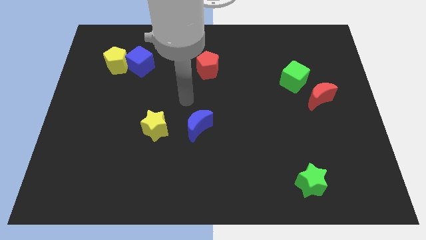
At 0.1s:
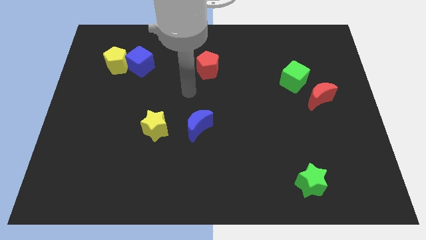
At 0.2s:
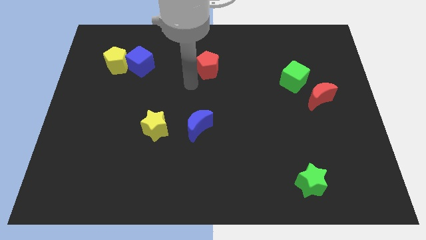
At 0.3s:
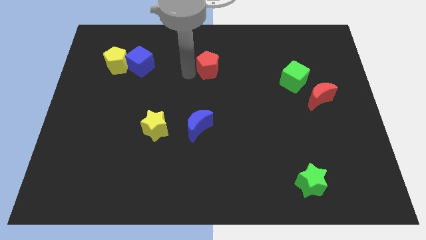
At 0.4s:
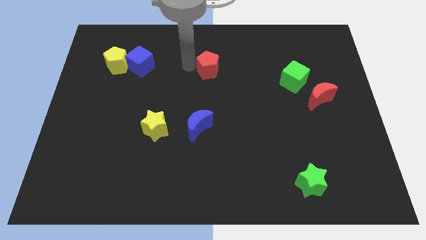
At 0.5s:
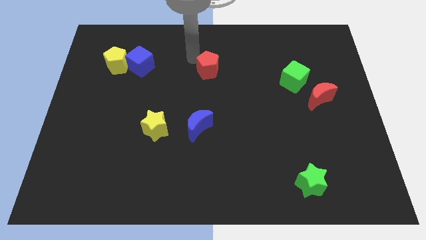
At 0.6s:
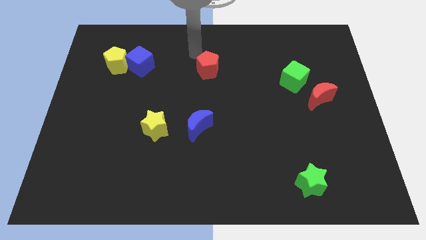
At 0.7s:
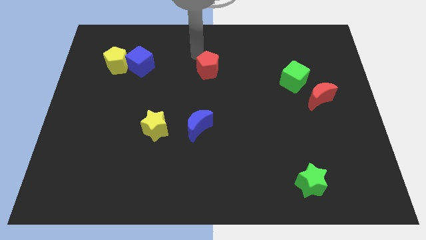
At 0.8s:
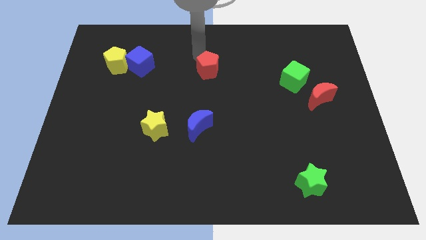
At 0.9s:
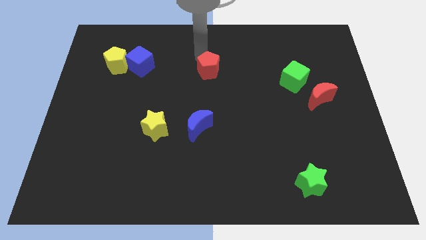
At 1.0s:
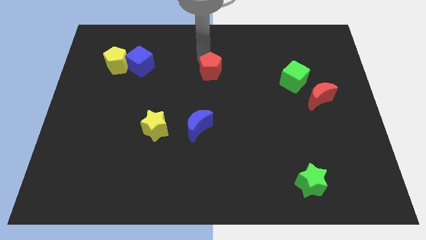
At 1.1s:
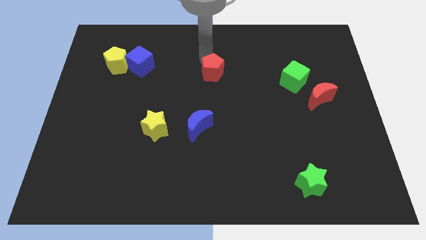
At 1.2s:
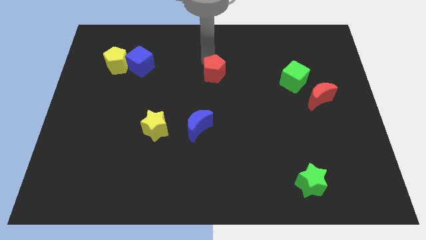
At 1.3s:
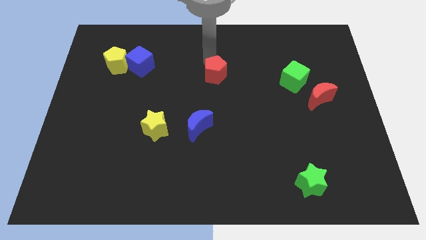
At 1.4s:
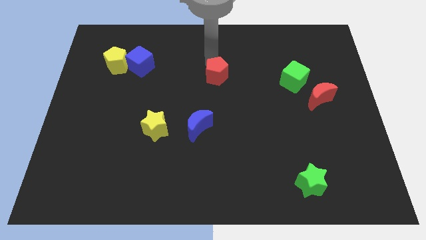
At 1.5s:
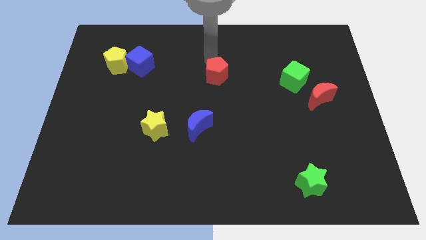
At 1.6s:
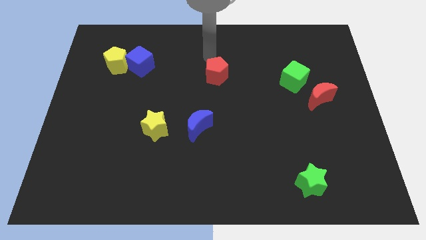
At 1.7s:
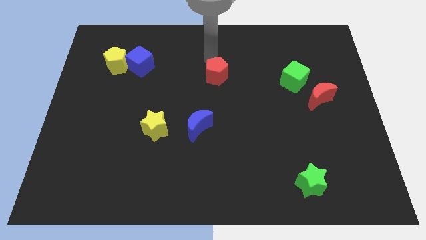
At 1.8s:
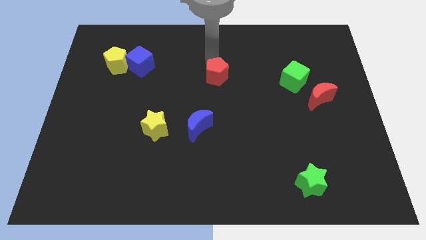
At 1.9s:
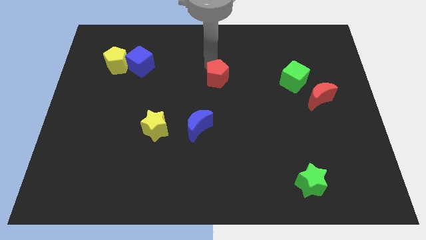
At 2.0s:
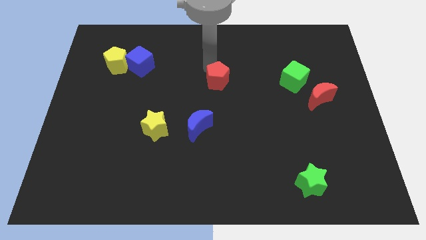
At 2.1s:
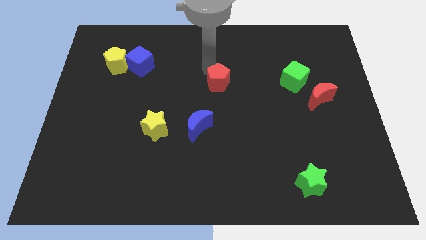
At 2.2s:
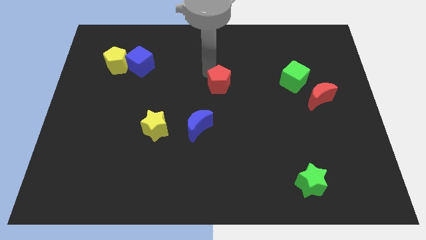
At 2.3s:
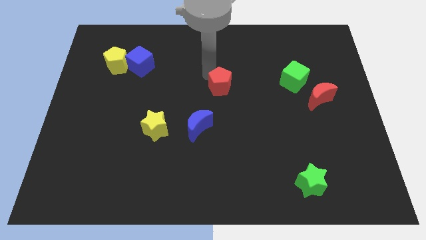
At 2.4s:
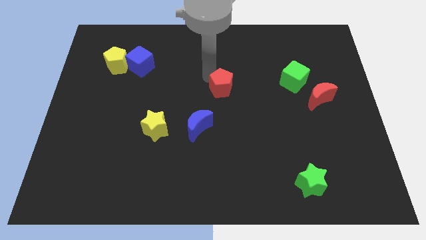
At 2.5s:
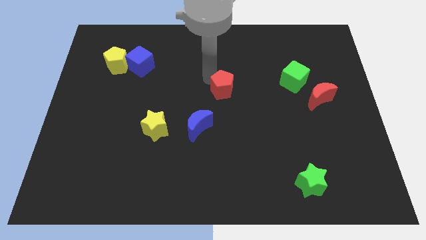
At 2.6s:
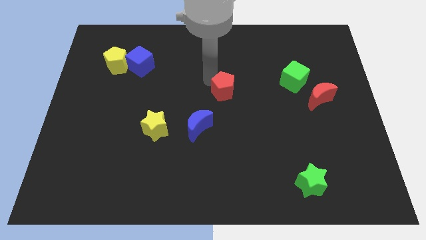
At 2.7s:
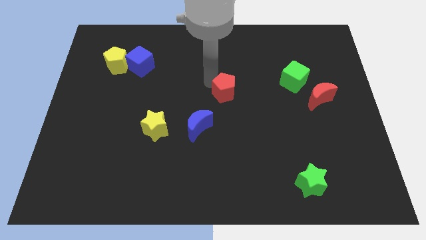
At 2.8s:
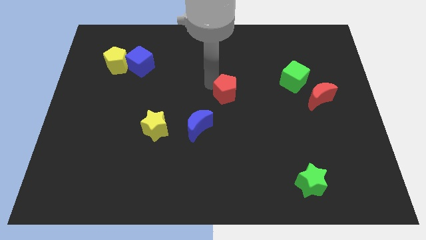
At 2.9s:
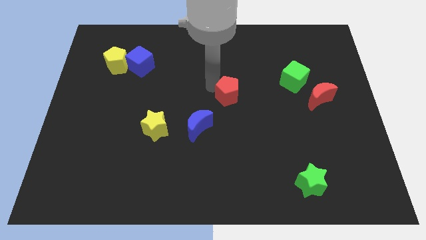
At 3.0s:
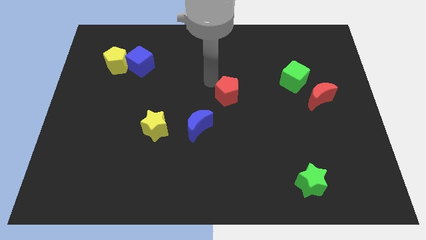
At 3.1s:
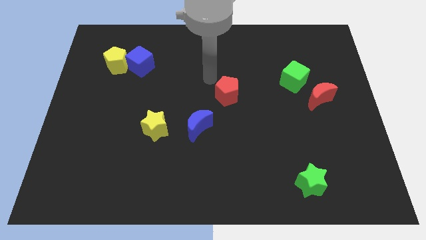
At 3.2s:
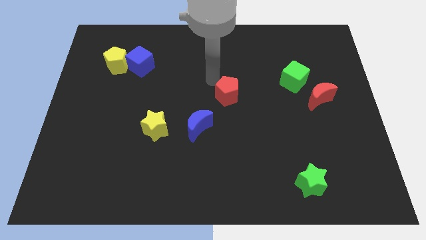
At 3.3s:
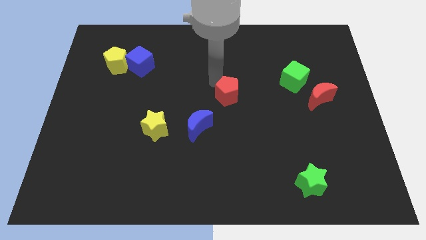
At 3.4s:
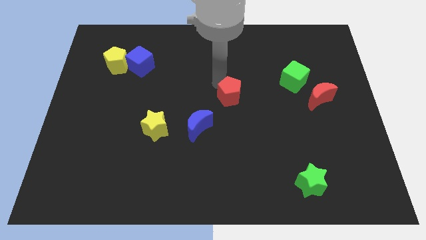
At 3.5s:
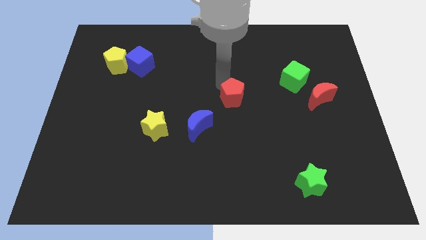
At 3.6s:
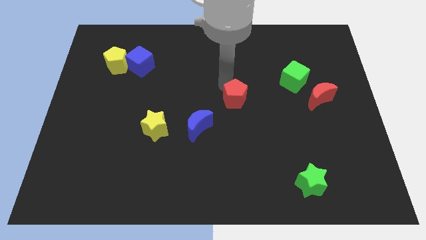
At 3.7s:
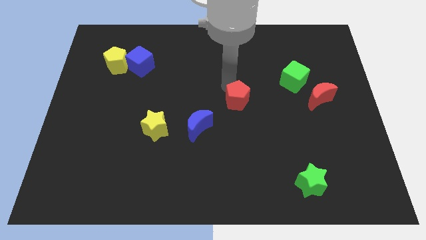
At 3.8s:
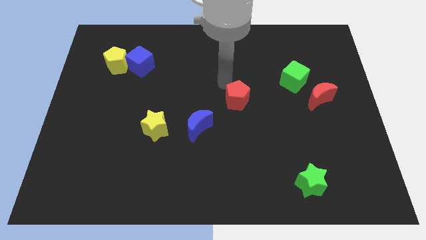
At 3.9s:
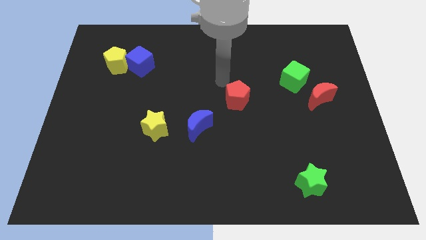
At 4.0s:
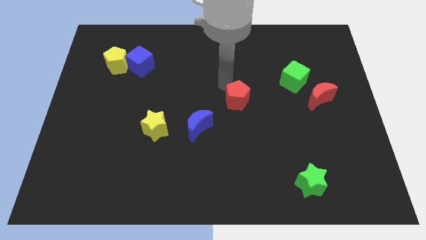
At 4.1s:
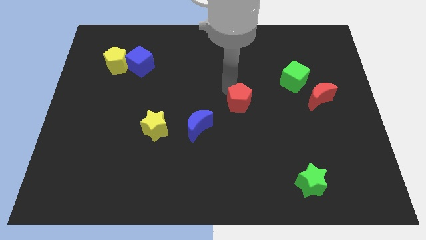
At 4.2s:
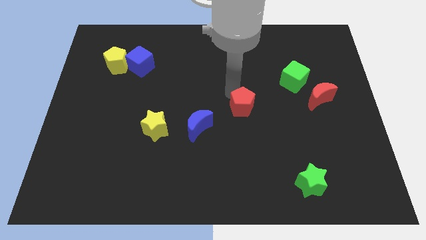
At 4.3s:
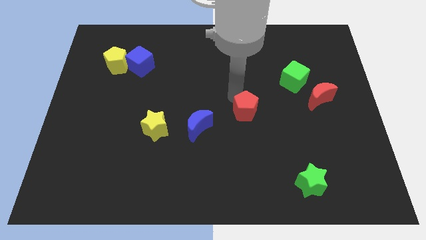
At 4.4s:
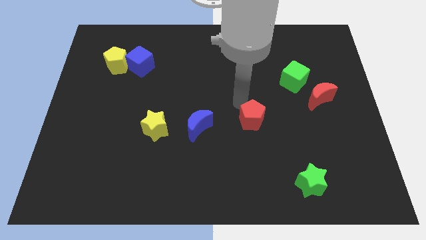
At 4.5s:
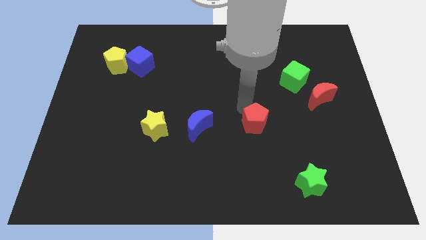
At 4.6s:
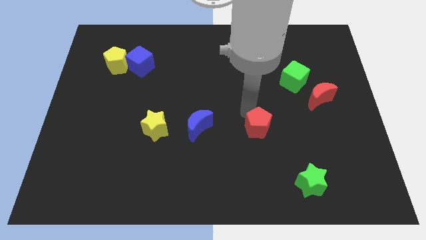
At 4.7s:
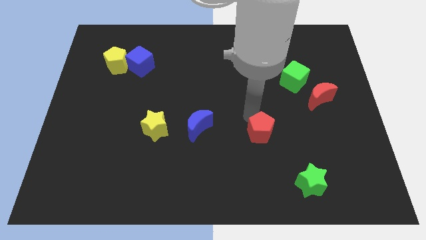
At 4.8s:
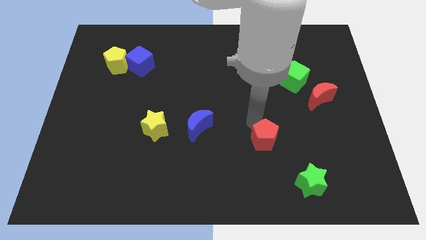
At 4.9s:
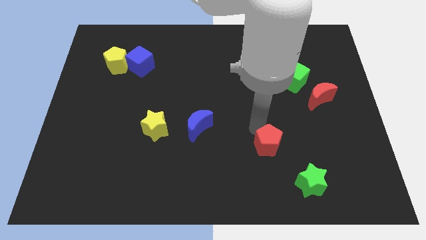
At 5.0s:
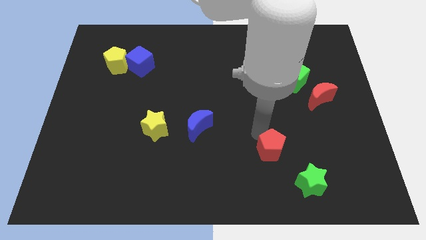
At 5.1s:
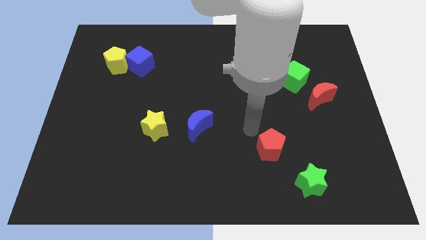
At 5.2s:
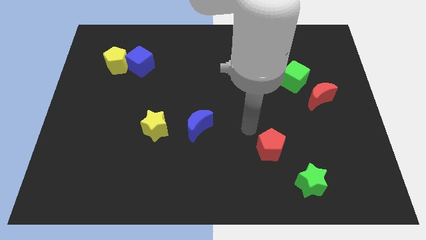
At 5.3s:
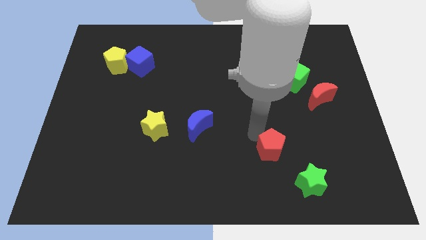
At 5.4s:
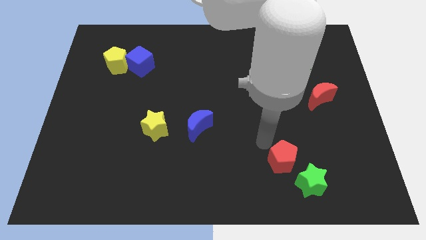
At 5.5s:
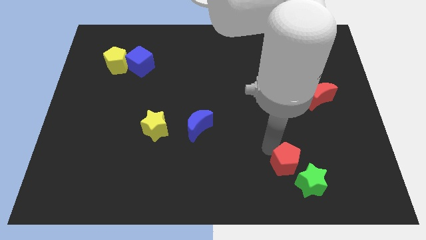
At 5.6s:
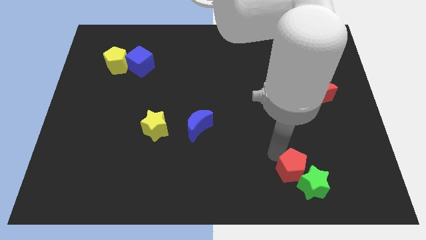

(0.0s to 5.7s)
slide the red pentagon to the green star

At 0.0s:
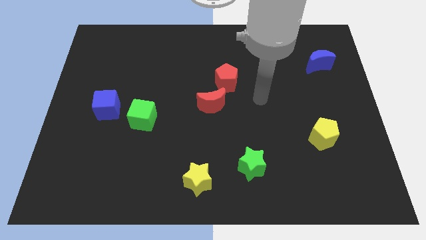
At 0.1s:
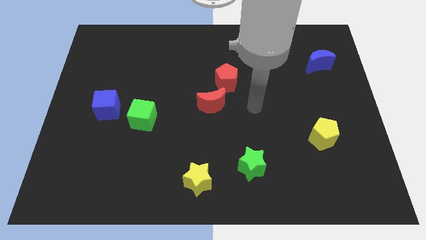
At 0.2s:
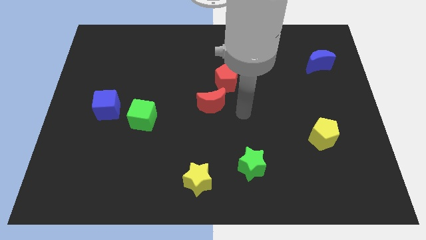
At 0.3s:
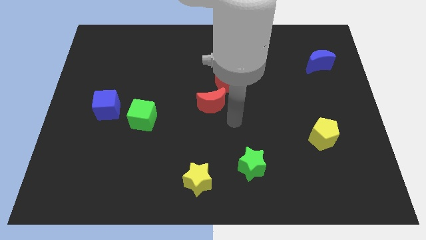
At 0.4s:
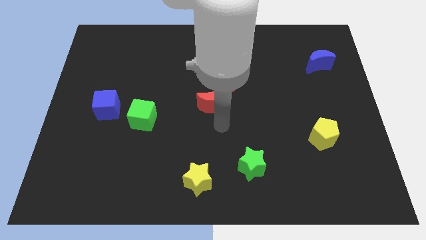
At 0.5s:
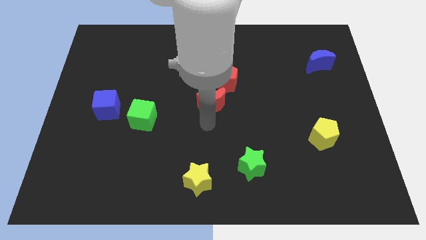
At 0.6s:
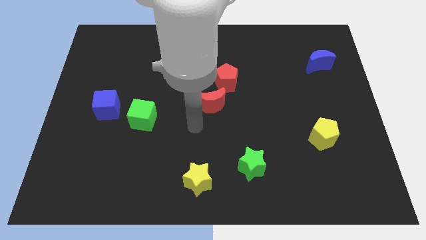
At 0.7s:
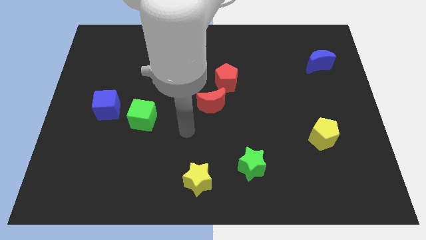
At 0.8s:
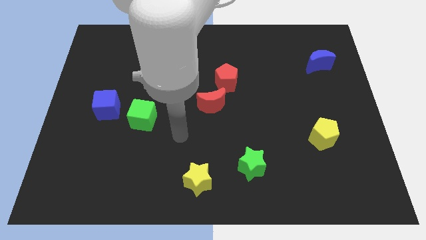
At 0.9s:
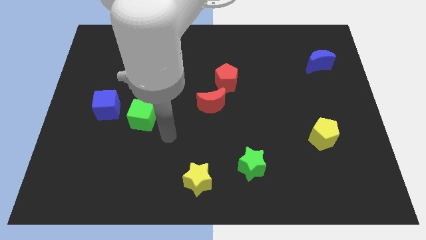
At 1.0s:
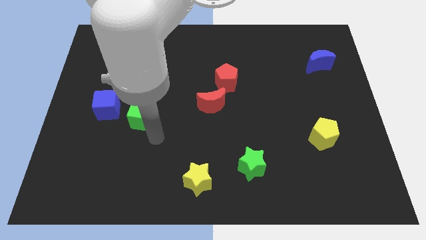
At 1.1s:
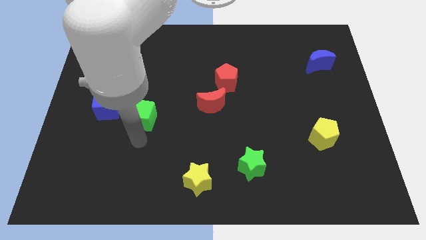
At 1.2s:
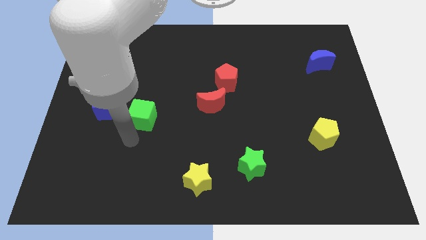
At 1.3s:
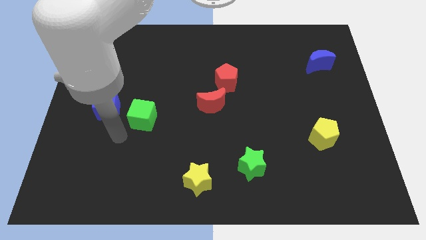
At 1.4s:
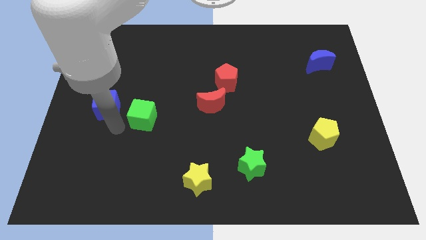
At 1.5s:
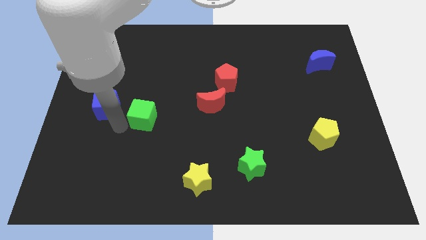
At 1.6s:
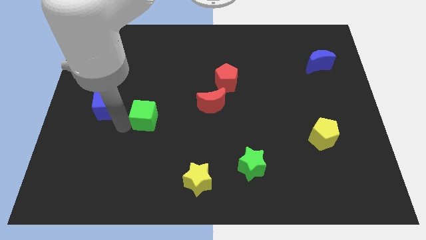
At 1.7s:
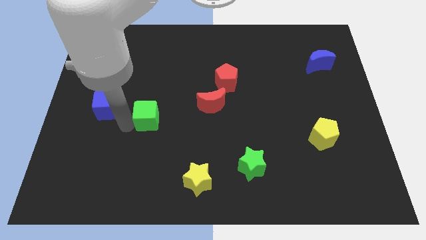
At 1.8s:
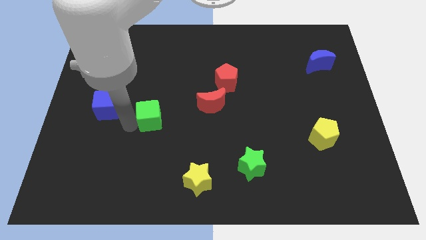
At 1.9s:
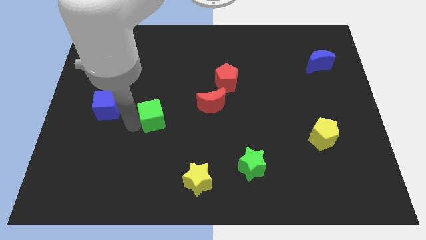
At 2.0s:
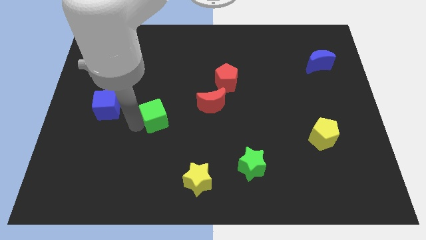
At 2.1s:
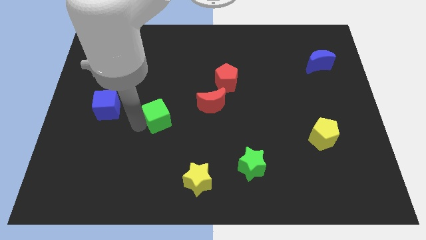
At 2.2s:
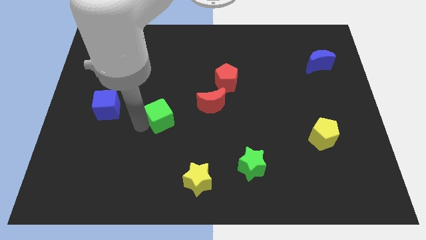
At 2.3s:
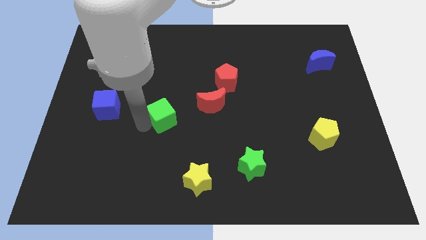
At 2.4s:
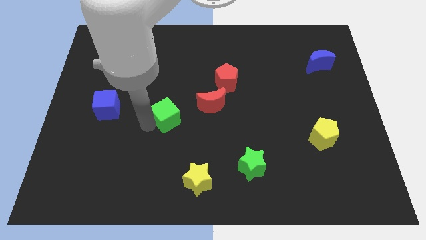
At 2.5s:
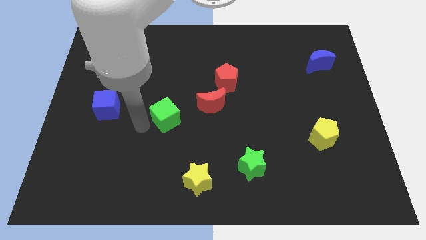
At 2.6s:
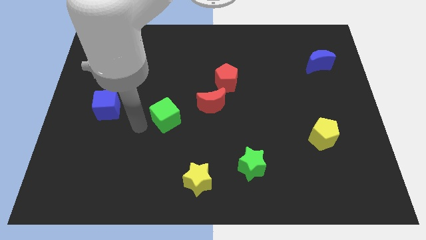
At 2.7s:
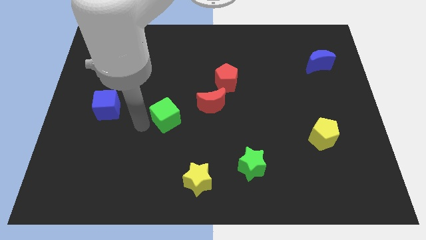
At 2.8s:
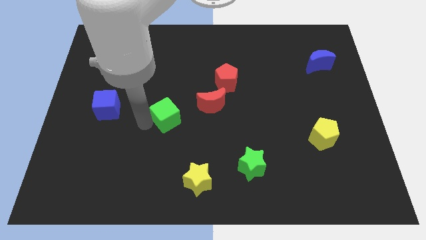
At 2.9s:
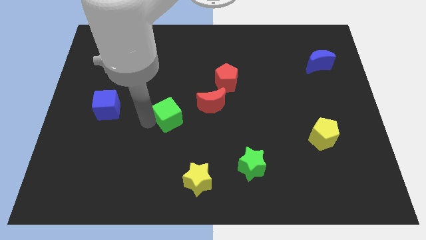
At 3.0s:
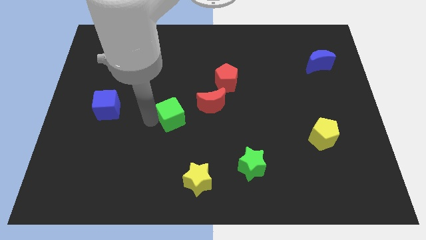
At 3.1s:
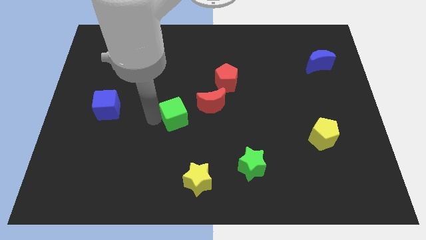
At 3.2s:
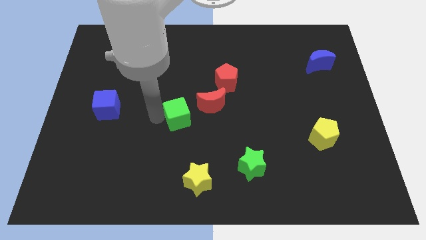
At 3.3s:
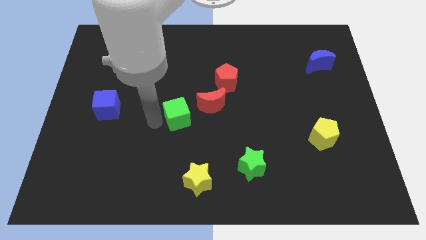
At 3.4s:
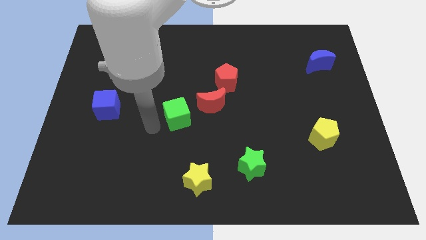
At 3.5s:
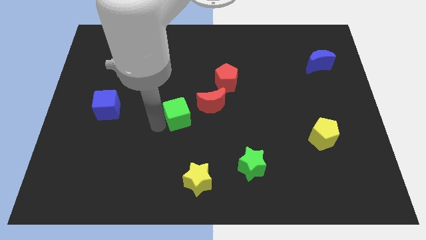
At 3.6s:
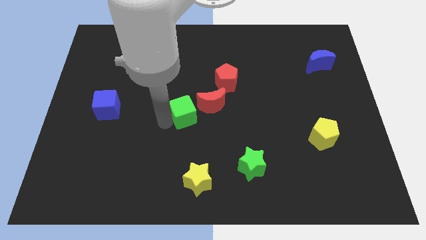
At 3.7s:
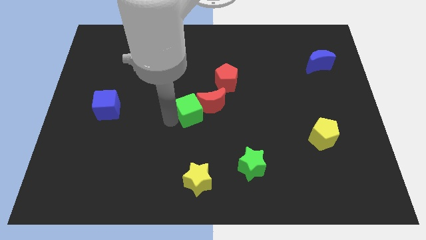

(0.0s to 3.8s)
slide the green cube close to the red moon
